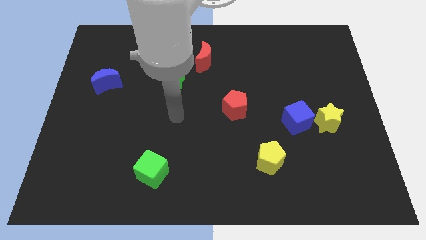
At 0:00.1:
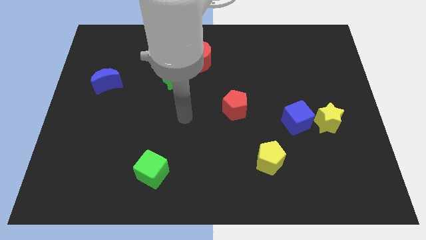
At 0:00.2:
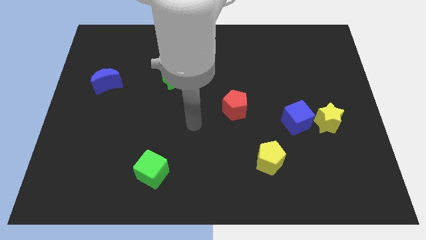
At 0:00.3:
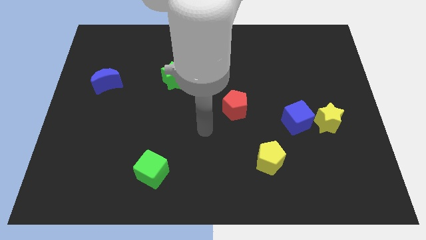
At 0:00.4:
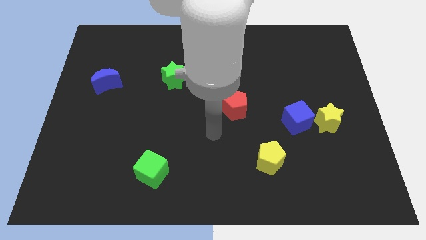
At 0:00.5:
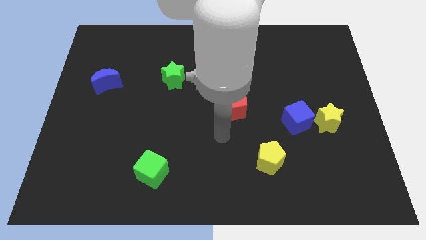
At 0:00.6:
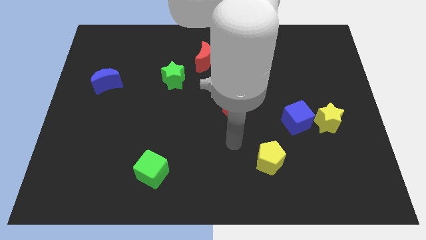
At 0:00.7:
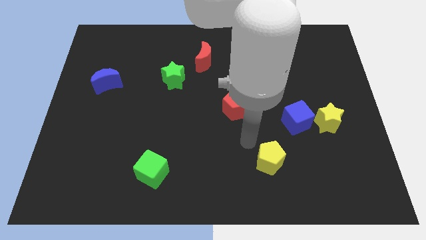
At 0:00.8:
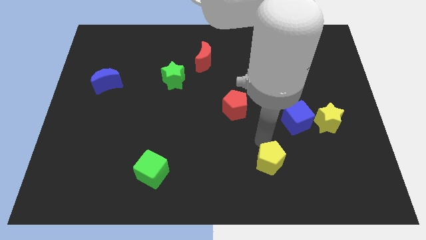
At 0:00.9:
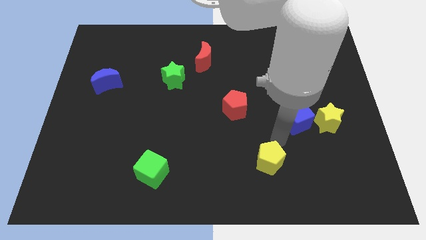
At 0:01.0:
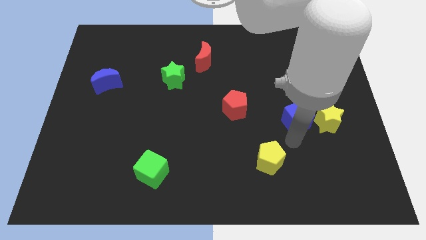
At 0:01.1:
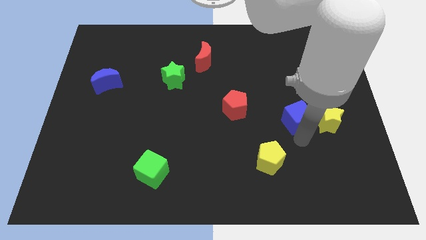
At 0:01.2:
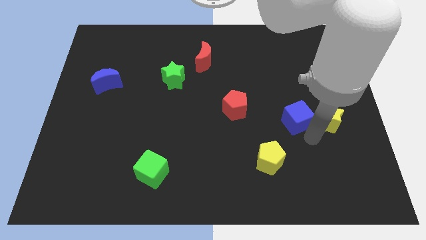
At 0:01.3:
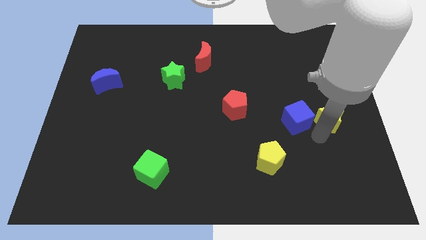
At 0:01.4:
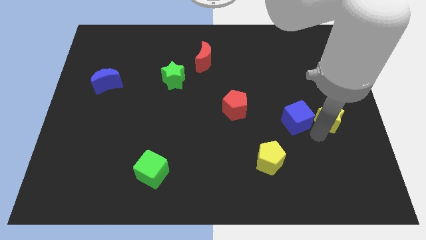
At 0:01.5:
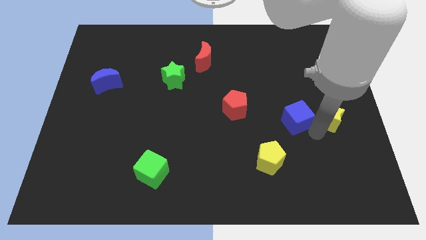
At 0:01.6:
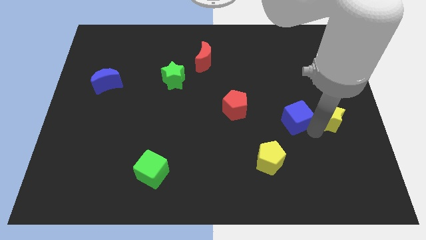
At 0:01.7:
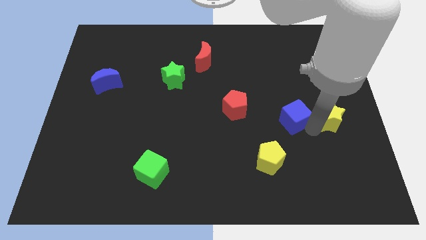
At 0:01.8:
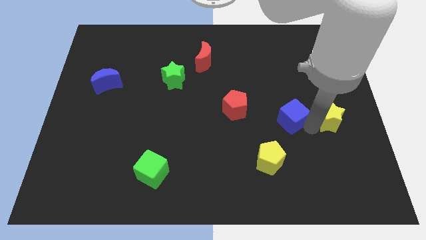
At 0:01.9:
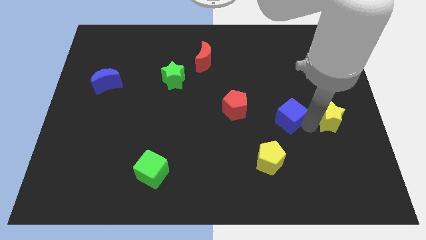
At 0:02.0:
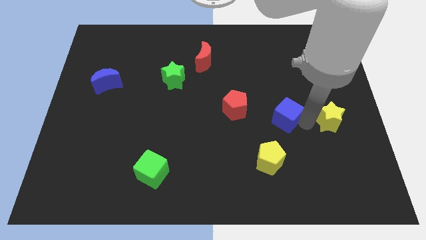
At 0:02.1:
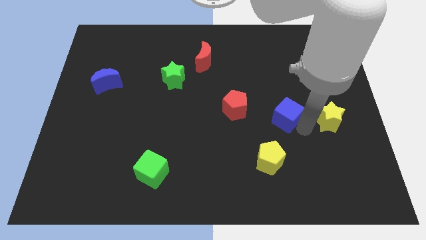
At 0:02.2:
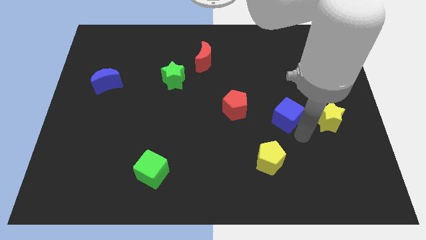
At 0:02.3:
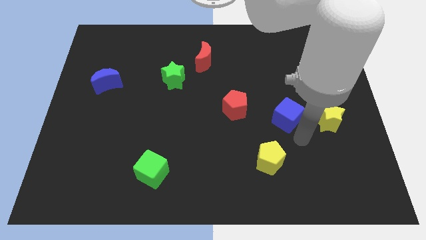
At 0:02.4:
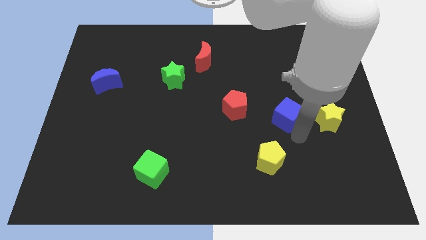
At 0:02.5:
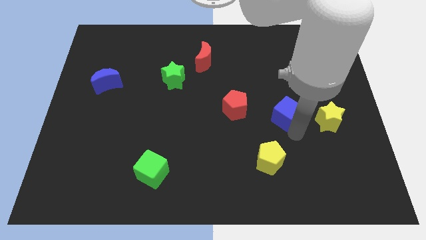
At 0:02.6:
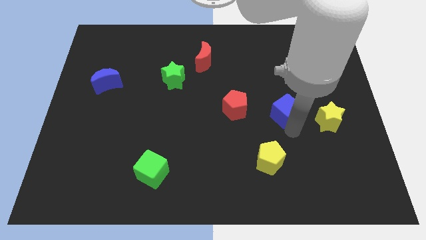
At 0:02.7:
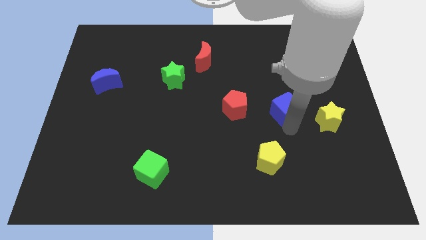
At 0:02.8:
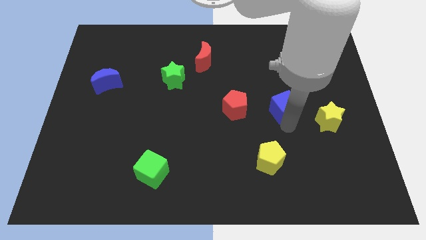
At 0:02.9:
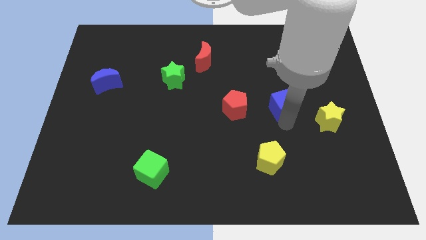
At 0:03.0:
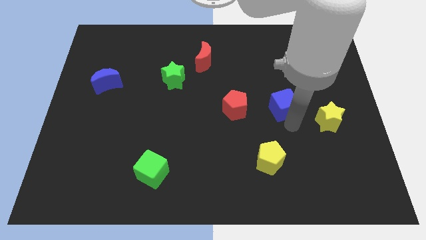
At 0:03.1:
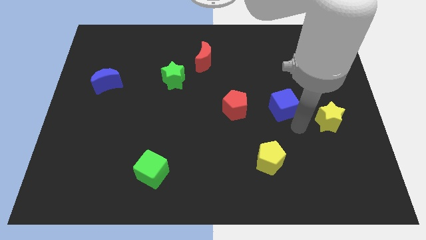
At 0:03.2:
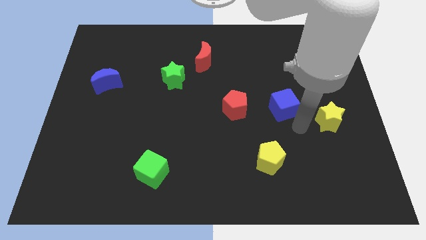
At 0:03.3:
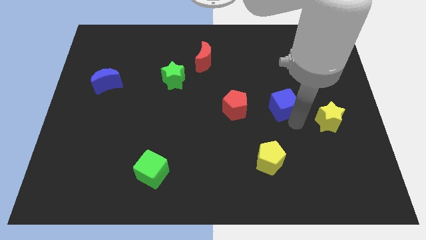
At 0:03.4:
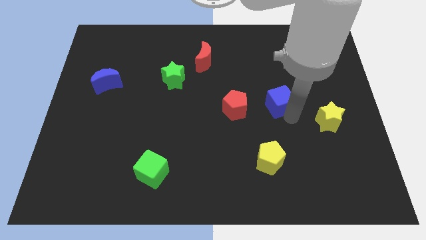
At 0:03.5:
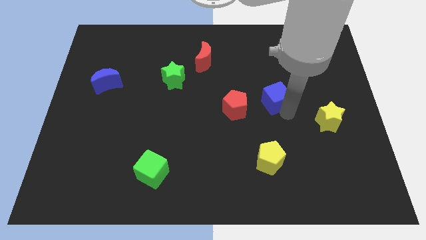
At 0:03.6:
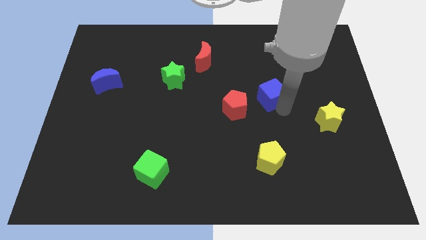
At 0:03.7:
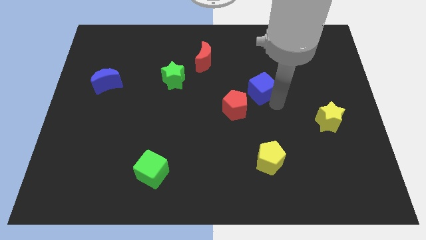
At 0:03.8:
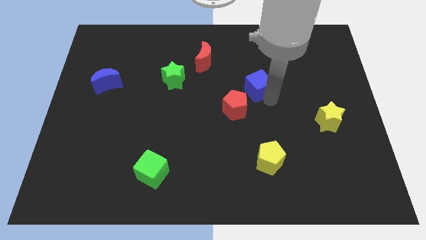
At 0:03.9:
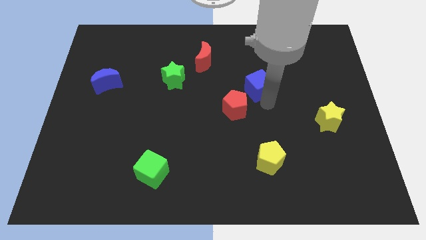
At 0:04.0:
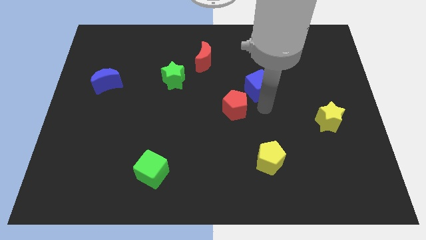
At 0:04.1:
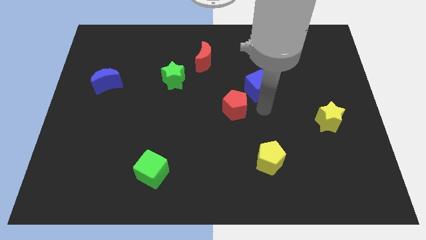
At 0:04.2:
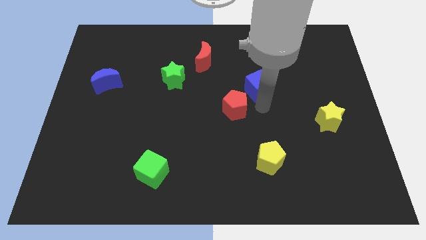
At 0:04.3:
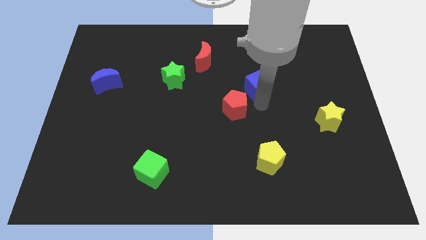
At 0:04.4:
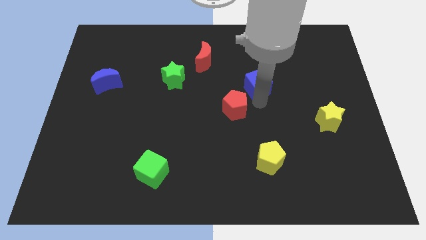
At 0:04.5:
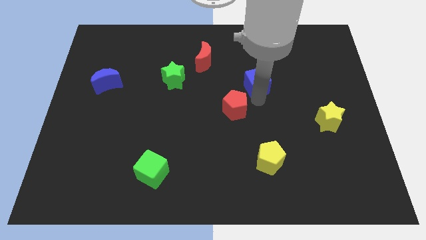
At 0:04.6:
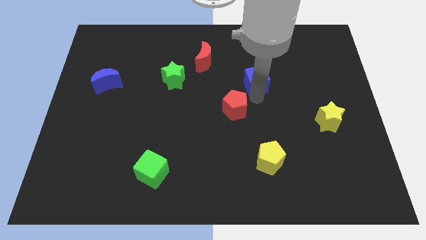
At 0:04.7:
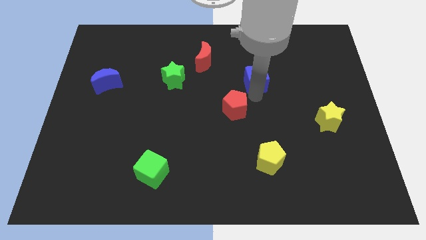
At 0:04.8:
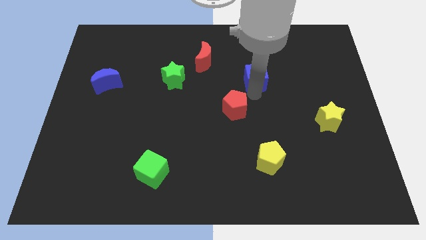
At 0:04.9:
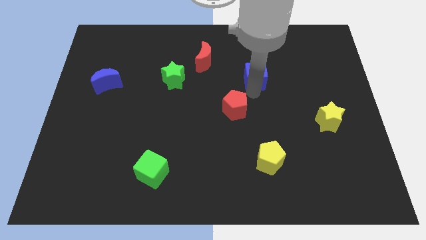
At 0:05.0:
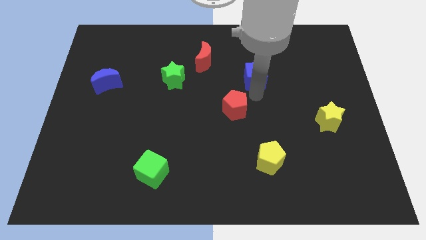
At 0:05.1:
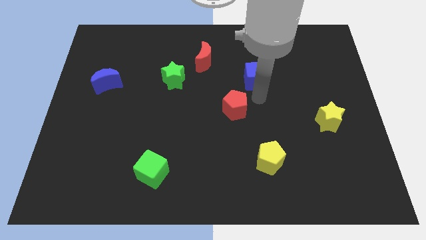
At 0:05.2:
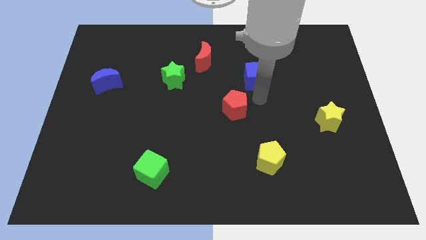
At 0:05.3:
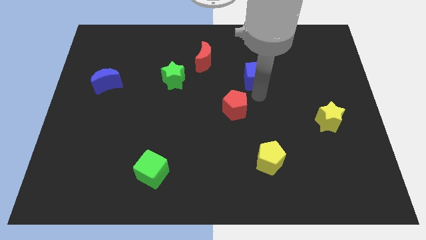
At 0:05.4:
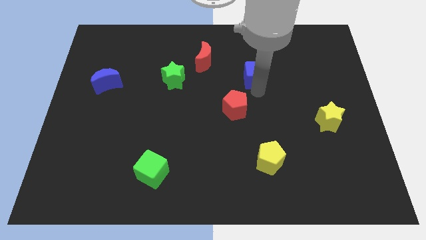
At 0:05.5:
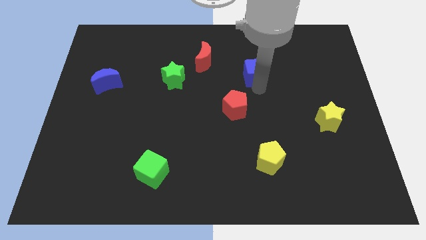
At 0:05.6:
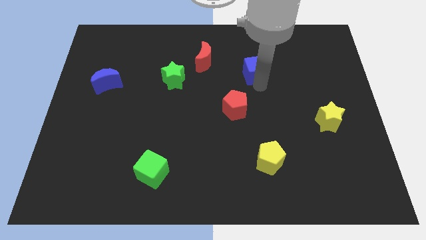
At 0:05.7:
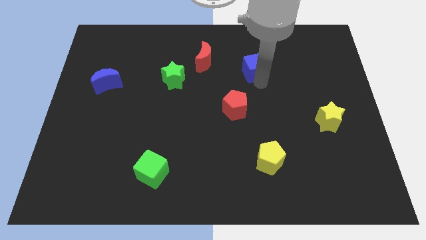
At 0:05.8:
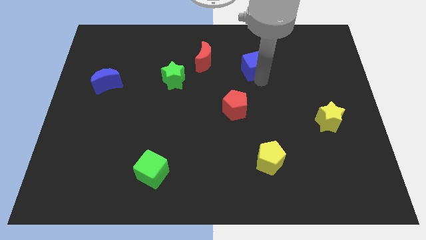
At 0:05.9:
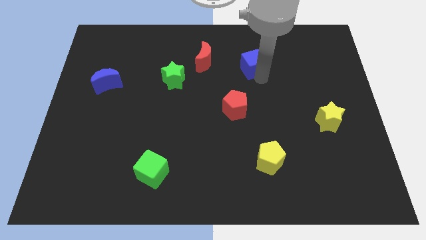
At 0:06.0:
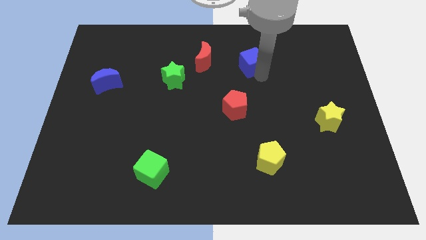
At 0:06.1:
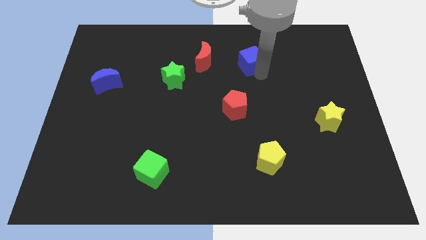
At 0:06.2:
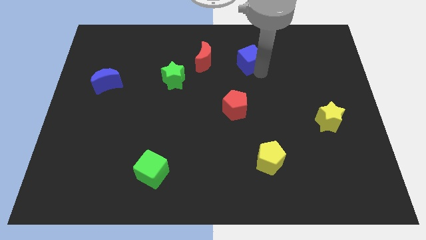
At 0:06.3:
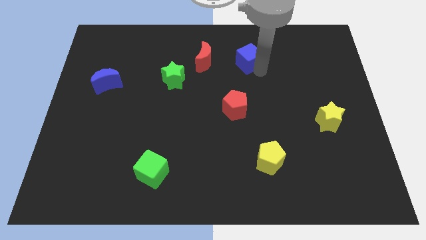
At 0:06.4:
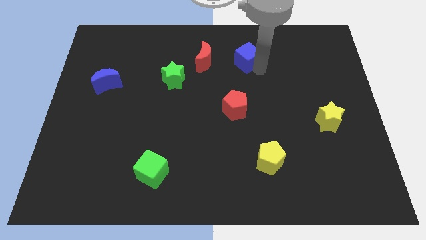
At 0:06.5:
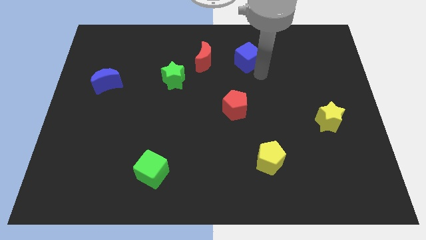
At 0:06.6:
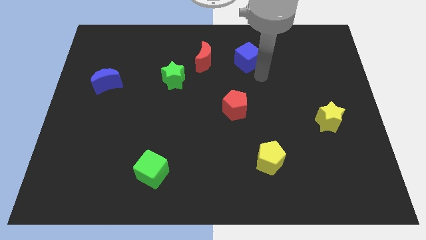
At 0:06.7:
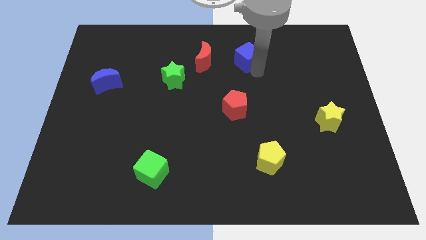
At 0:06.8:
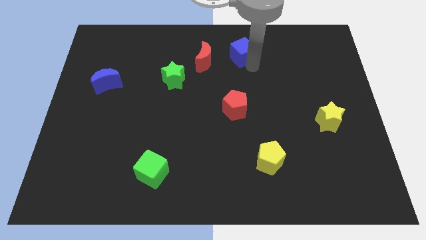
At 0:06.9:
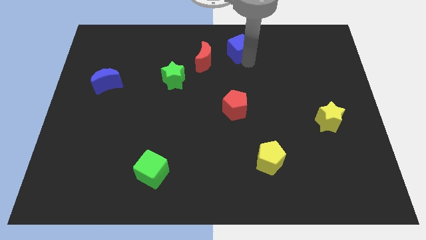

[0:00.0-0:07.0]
put the blue cube to the top side
